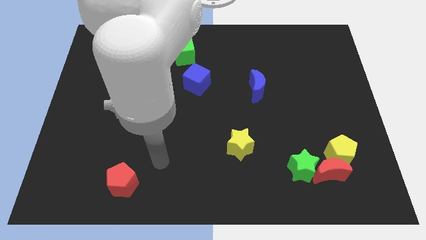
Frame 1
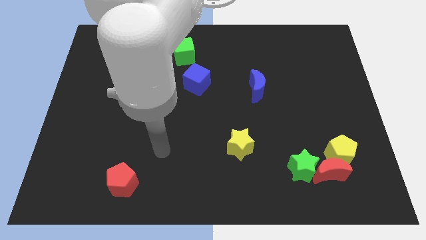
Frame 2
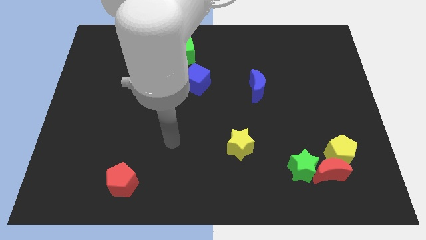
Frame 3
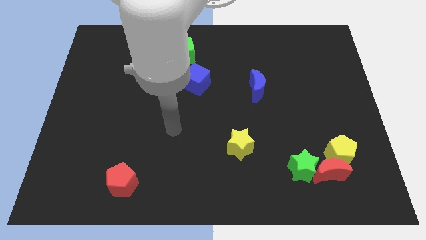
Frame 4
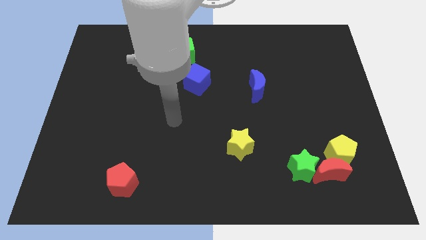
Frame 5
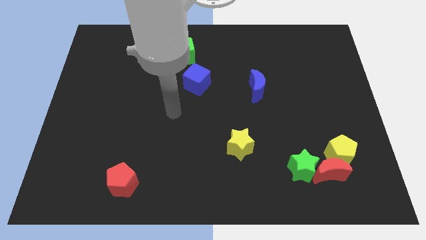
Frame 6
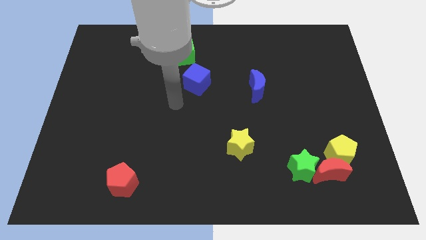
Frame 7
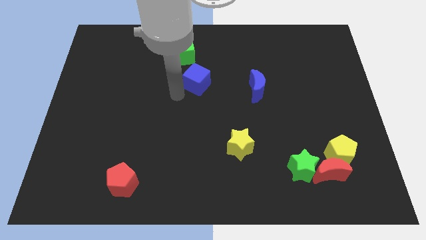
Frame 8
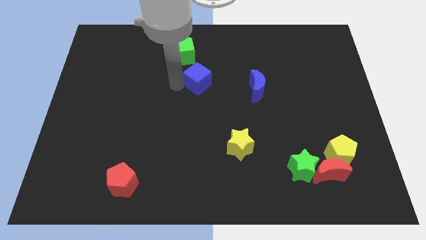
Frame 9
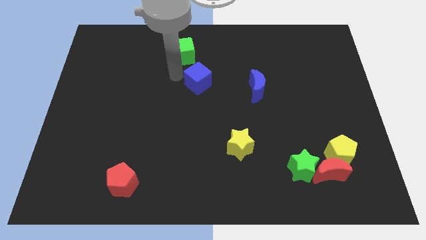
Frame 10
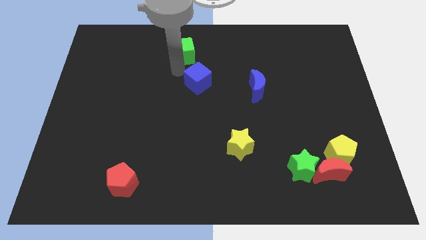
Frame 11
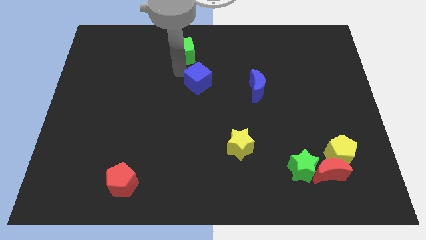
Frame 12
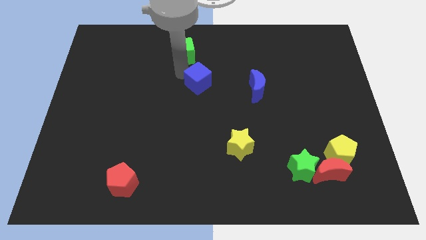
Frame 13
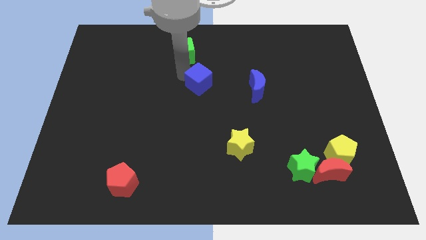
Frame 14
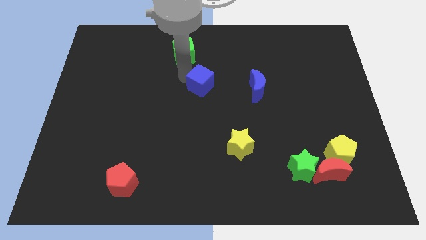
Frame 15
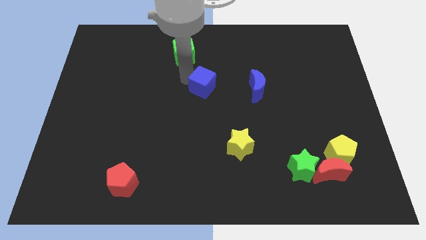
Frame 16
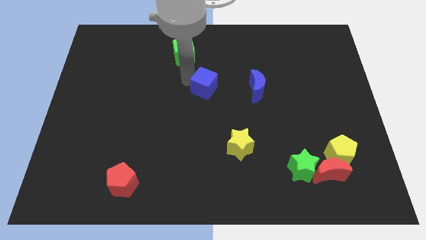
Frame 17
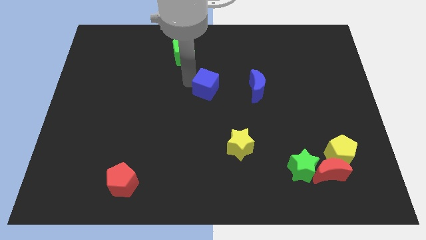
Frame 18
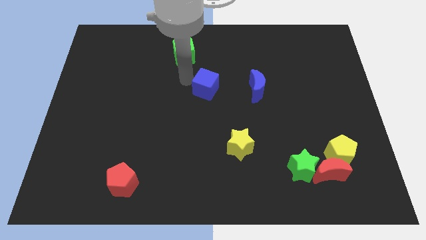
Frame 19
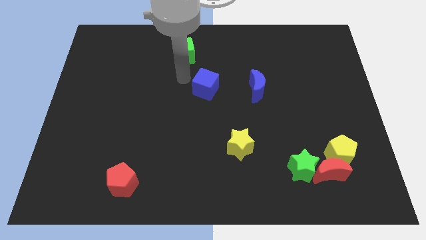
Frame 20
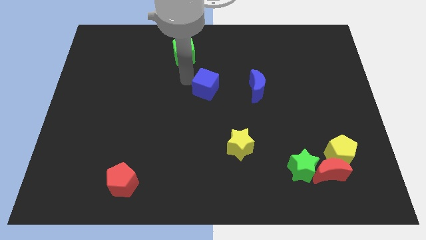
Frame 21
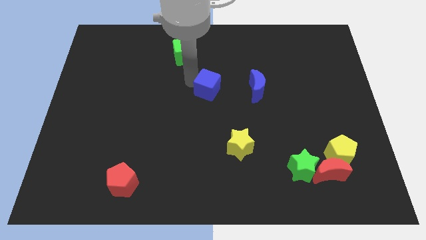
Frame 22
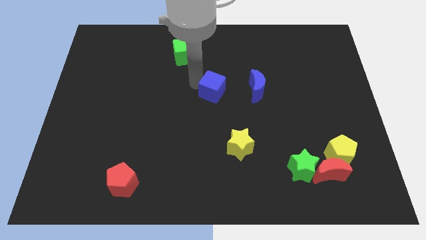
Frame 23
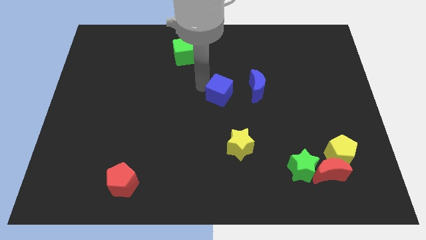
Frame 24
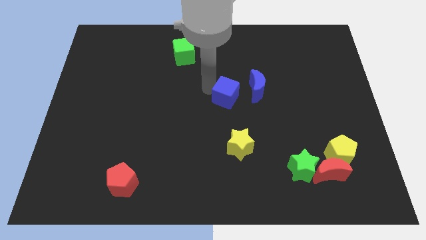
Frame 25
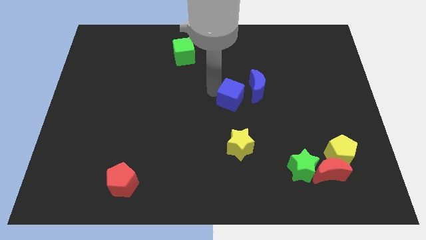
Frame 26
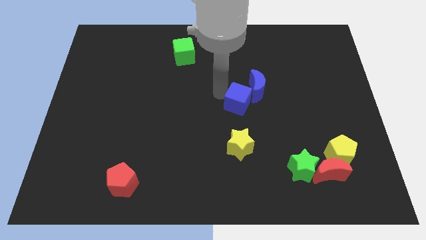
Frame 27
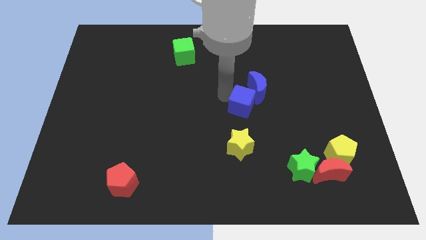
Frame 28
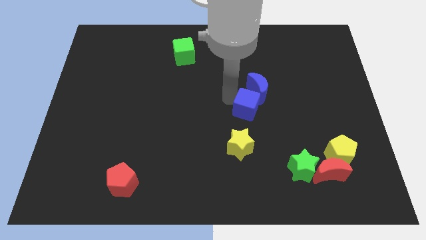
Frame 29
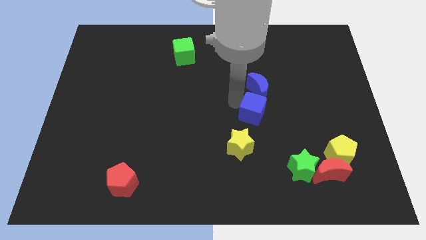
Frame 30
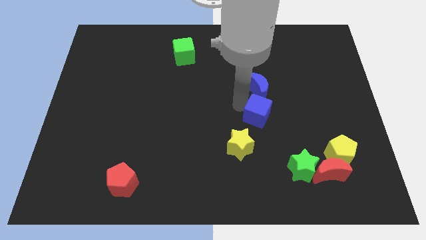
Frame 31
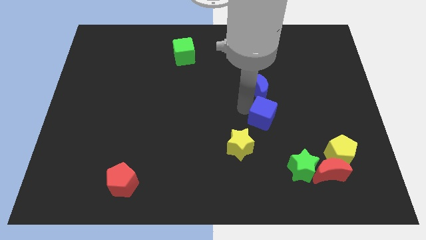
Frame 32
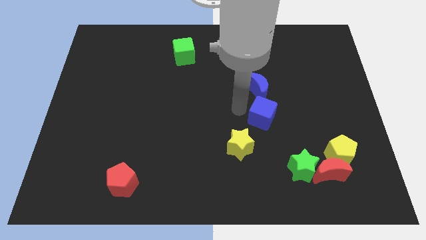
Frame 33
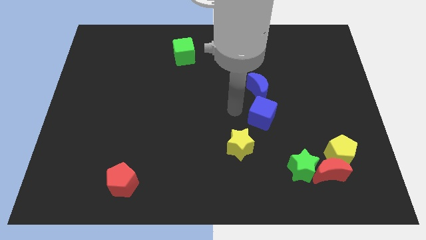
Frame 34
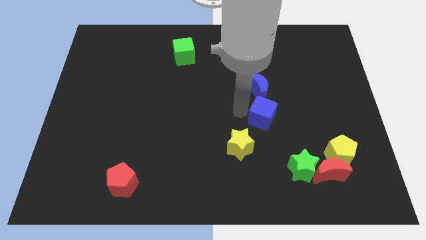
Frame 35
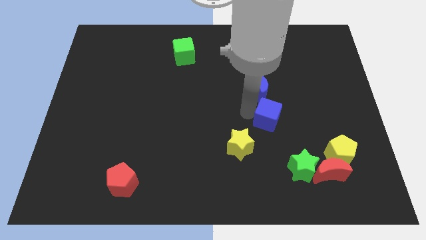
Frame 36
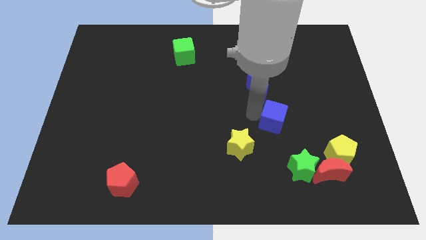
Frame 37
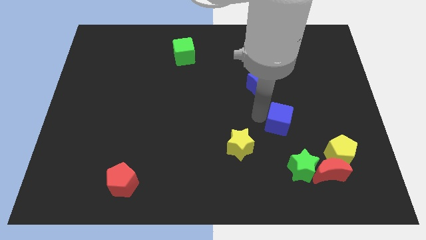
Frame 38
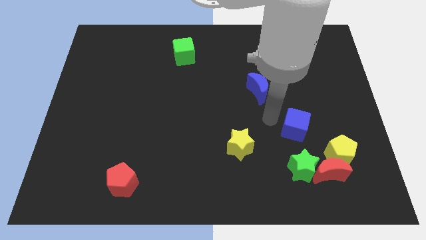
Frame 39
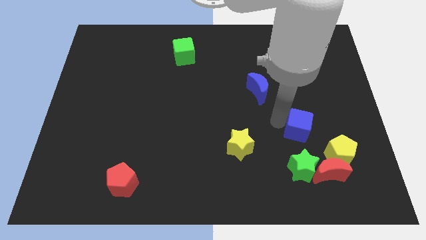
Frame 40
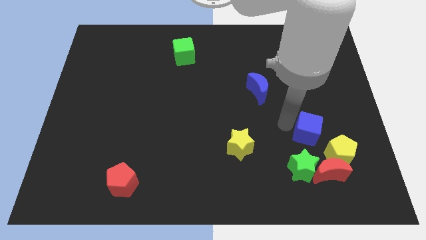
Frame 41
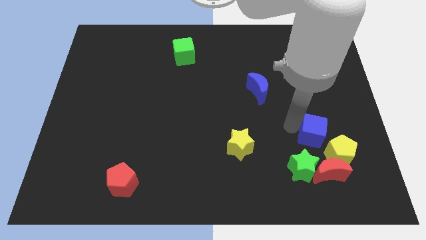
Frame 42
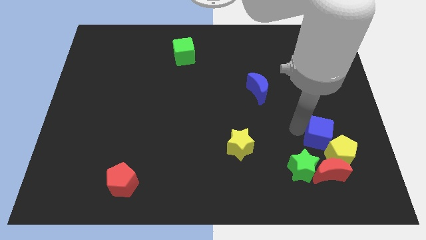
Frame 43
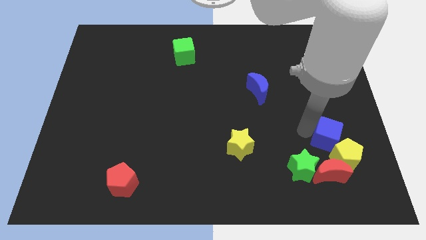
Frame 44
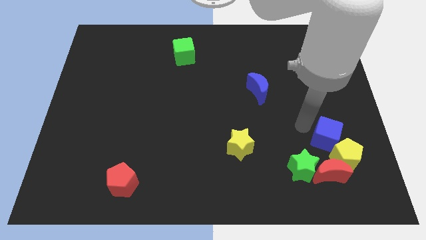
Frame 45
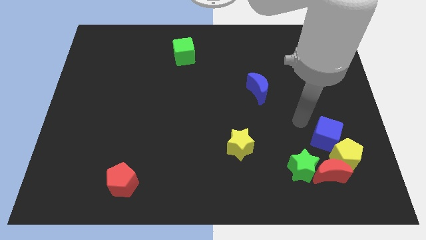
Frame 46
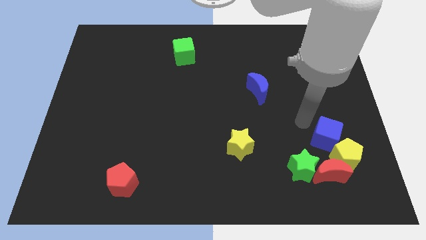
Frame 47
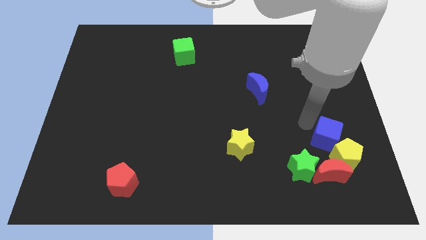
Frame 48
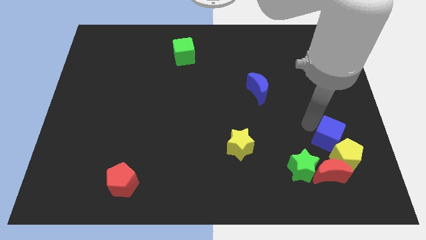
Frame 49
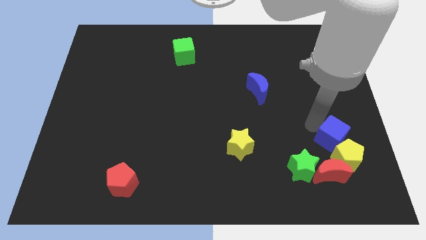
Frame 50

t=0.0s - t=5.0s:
slide the blue cube diagonally up and to the right of the red moon
